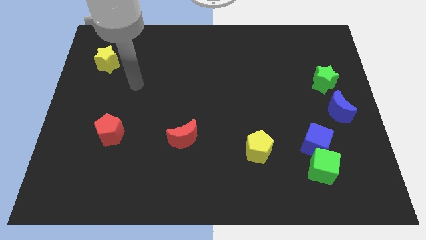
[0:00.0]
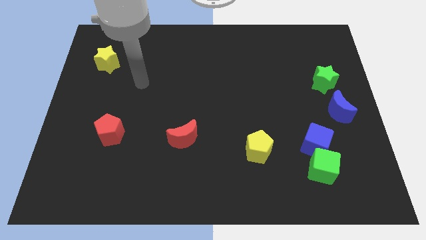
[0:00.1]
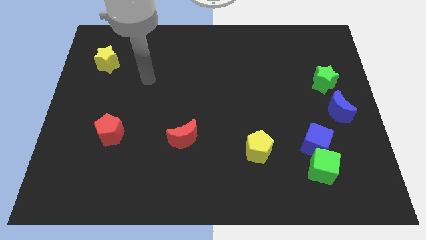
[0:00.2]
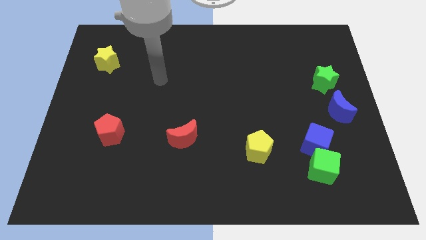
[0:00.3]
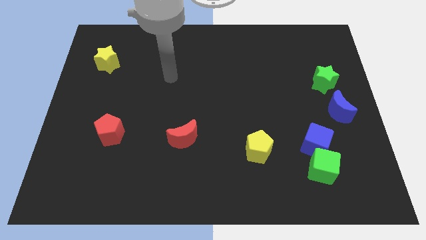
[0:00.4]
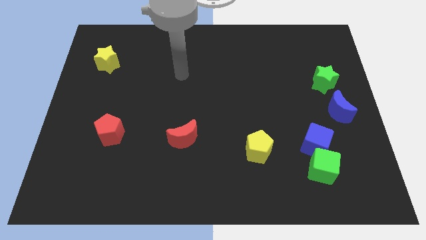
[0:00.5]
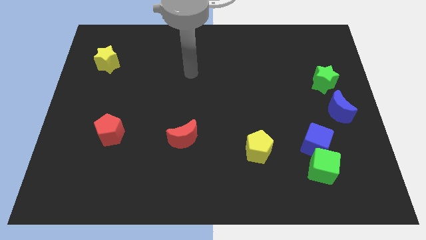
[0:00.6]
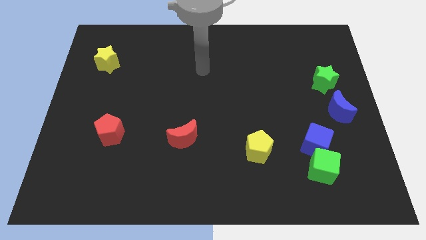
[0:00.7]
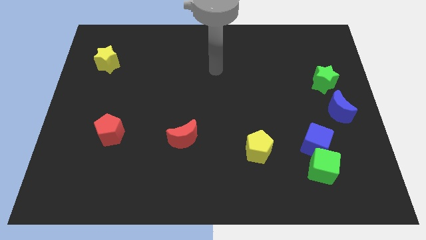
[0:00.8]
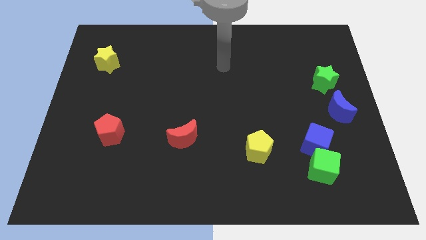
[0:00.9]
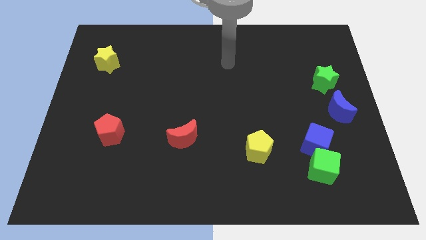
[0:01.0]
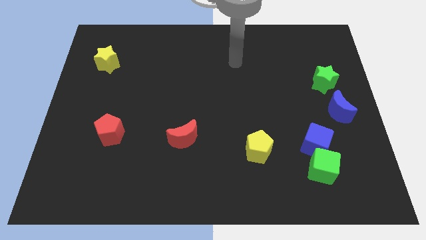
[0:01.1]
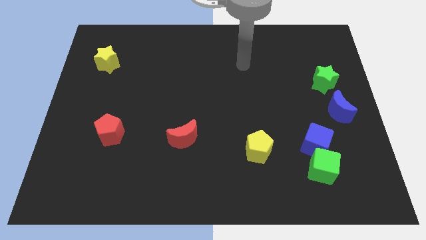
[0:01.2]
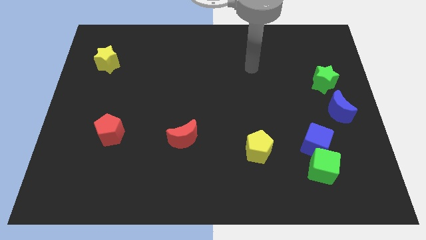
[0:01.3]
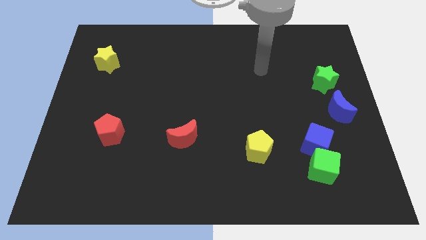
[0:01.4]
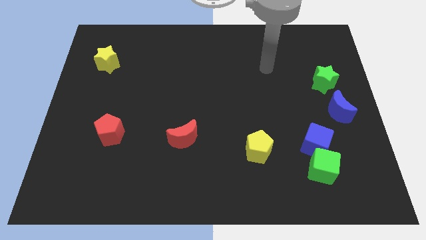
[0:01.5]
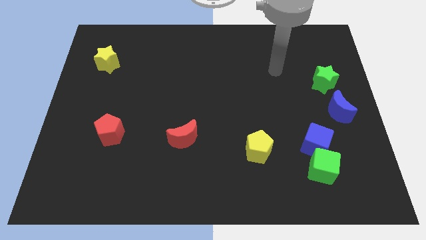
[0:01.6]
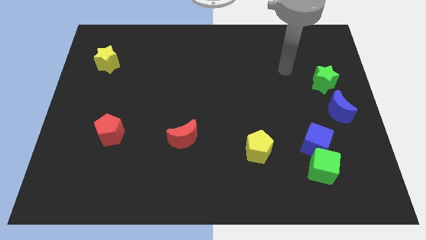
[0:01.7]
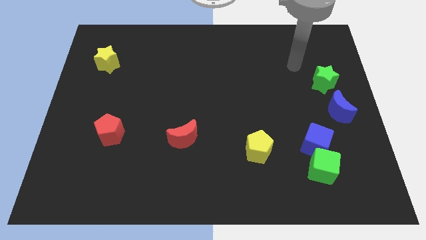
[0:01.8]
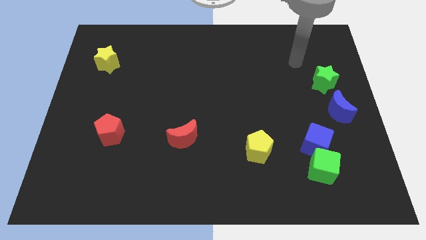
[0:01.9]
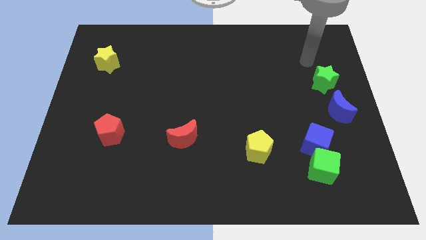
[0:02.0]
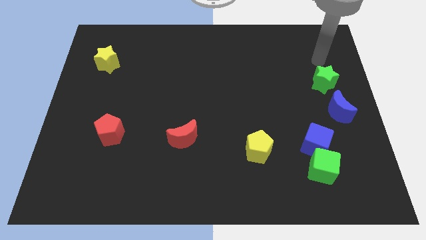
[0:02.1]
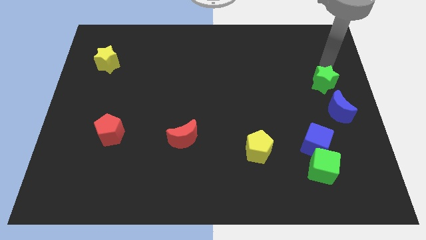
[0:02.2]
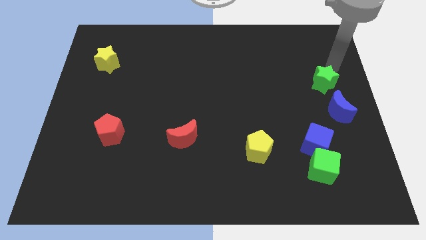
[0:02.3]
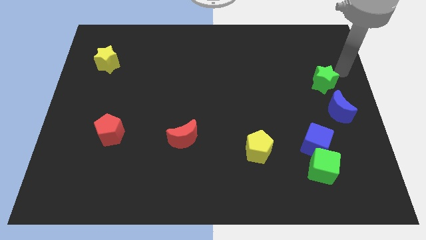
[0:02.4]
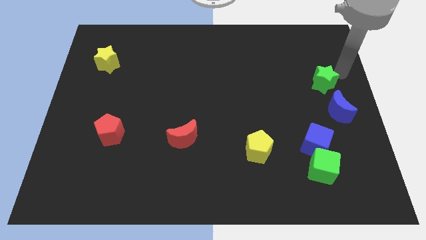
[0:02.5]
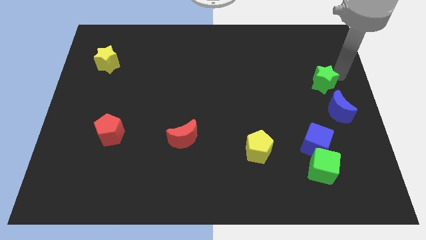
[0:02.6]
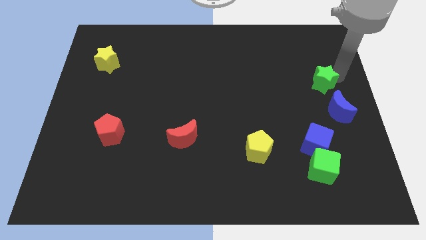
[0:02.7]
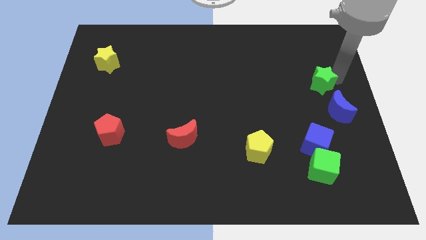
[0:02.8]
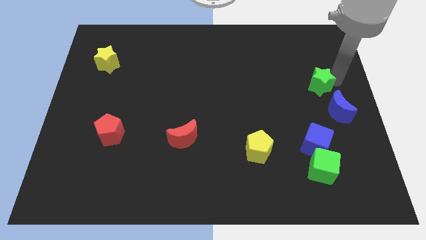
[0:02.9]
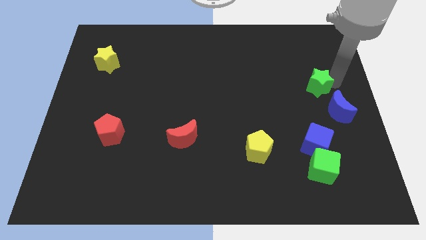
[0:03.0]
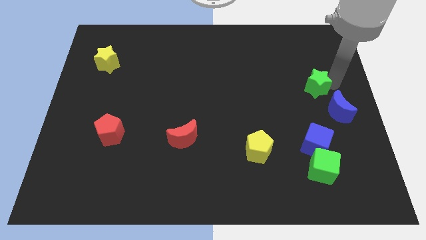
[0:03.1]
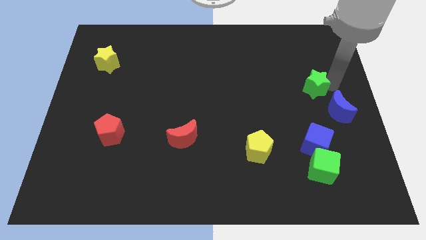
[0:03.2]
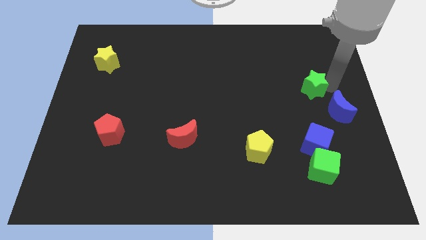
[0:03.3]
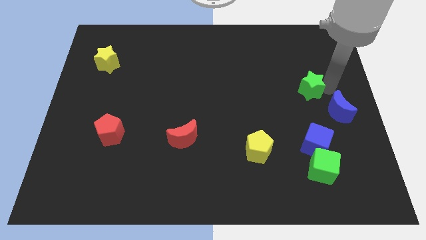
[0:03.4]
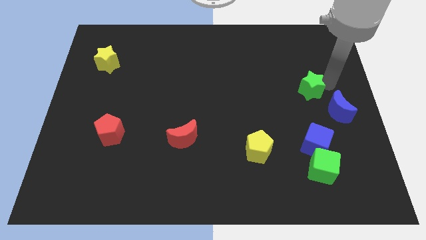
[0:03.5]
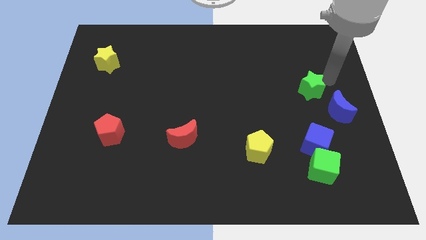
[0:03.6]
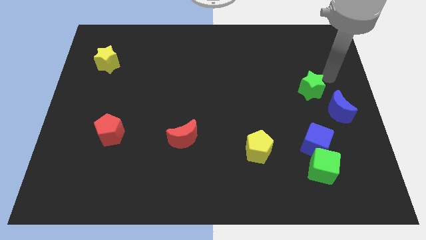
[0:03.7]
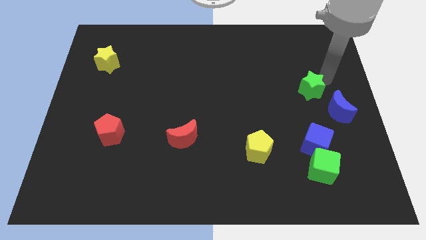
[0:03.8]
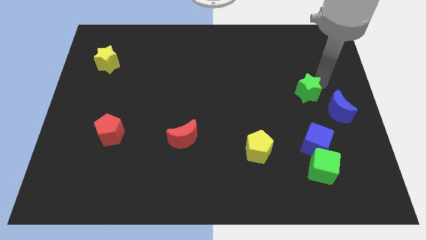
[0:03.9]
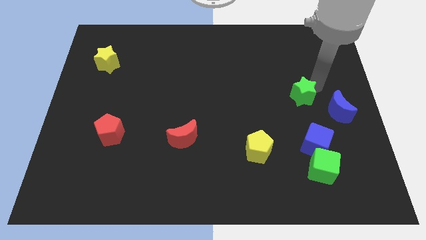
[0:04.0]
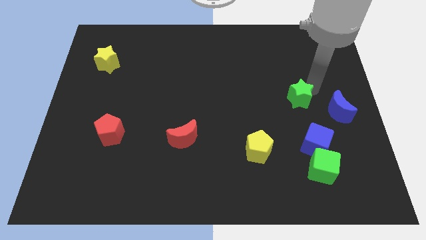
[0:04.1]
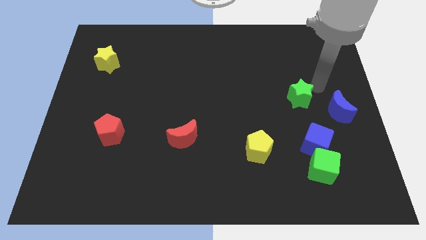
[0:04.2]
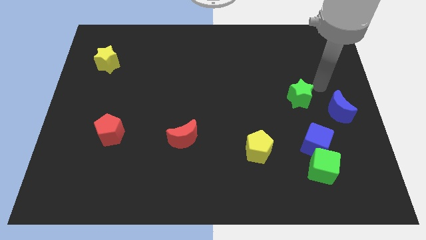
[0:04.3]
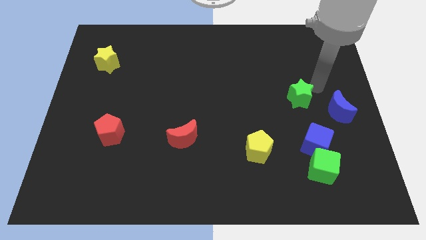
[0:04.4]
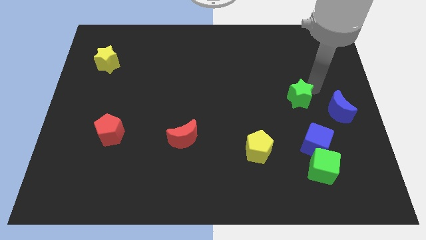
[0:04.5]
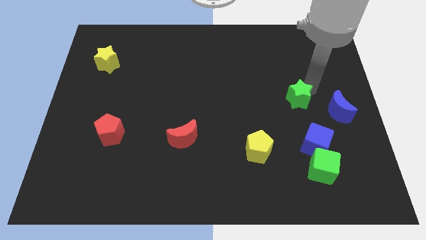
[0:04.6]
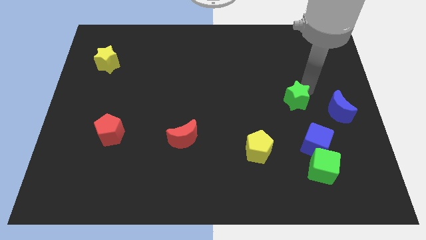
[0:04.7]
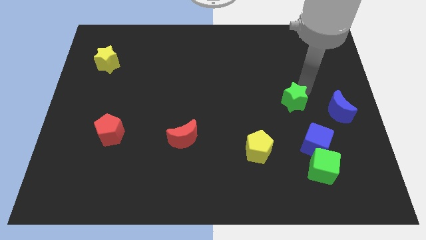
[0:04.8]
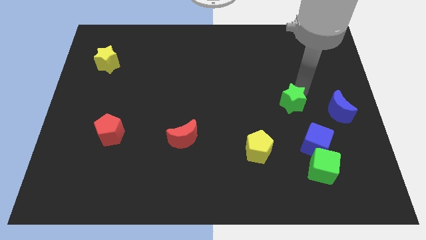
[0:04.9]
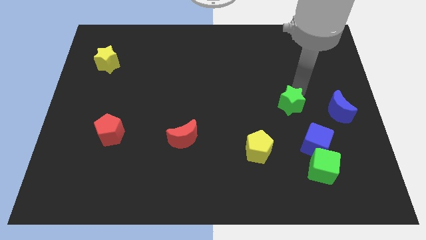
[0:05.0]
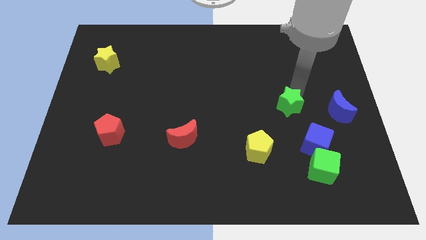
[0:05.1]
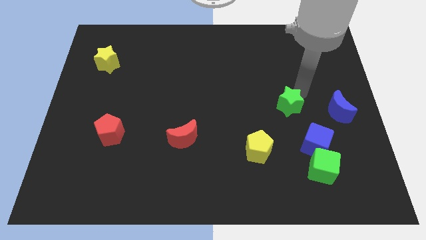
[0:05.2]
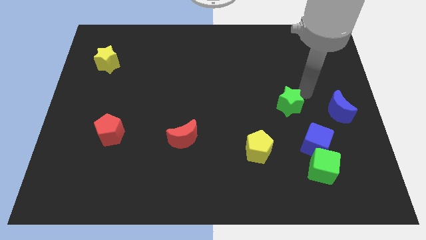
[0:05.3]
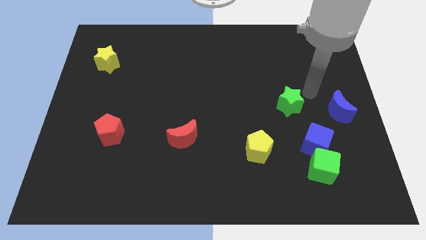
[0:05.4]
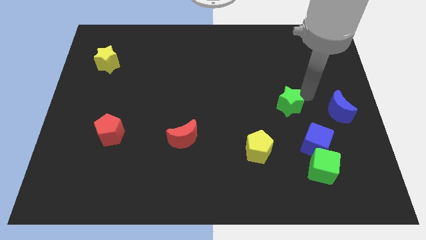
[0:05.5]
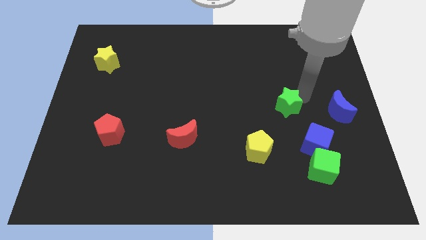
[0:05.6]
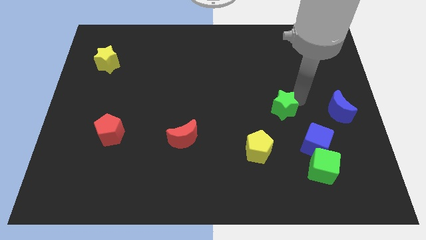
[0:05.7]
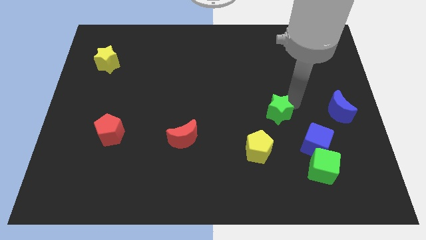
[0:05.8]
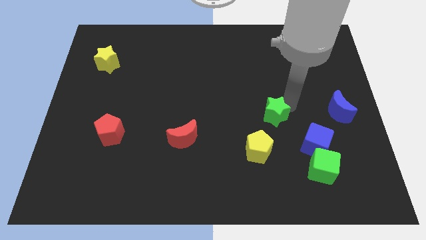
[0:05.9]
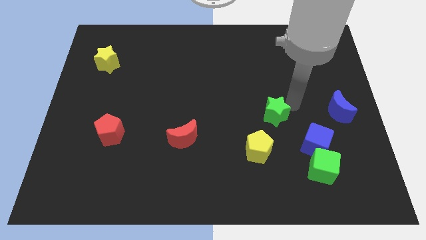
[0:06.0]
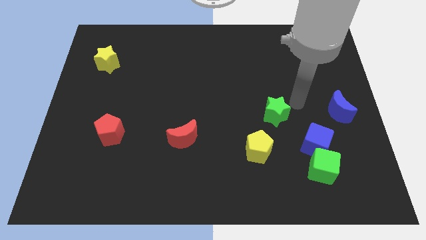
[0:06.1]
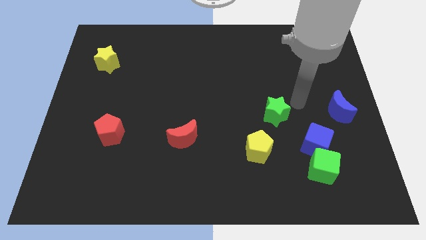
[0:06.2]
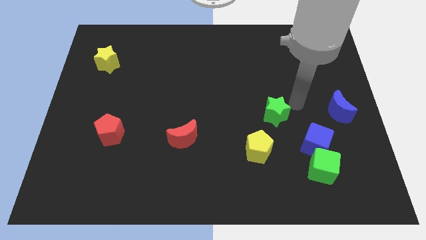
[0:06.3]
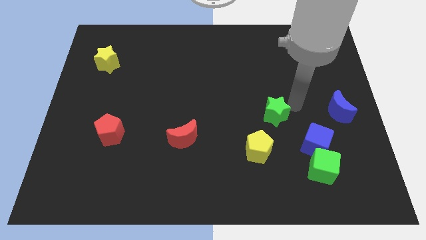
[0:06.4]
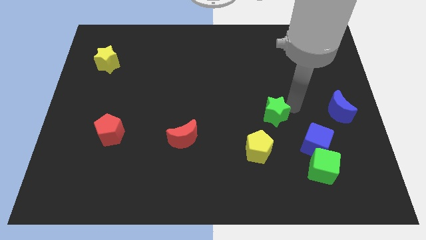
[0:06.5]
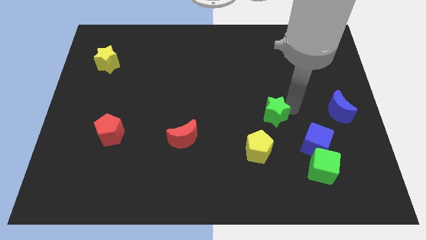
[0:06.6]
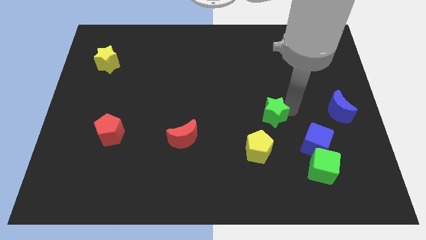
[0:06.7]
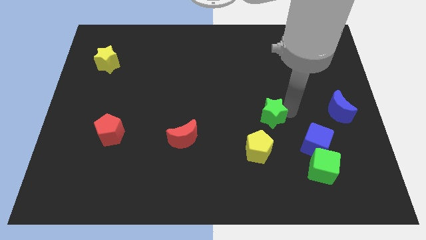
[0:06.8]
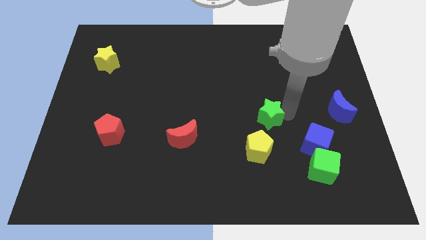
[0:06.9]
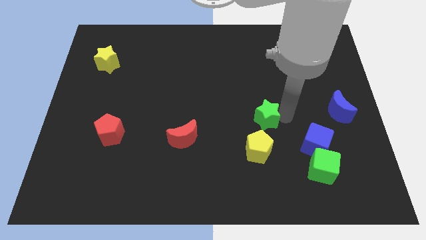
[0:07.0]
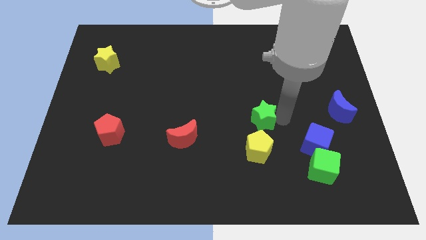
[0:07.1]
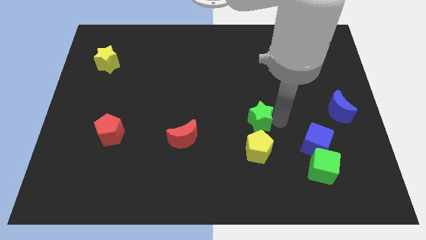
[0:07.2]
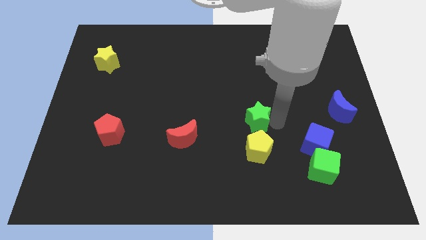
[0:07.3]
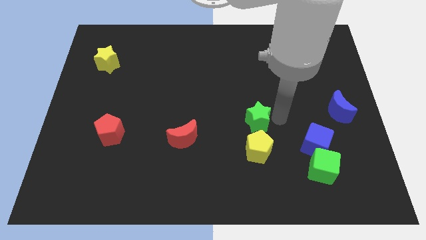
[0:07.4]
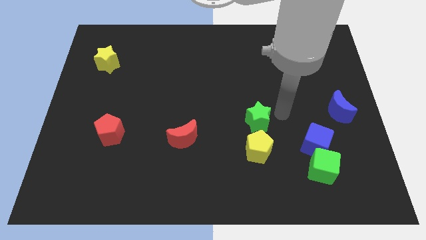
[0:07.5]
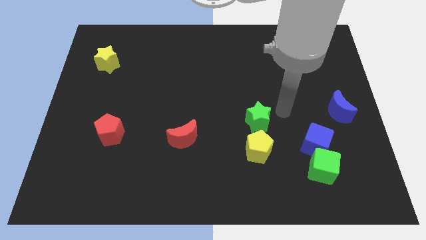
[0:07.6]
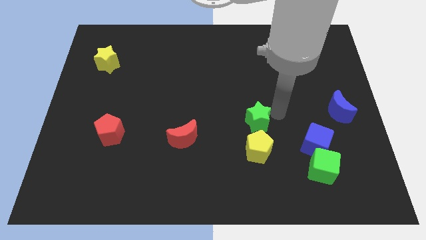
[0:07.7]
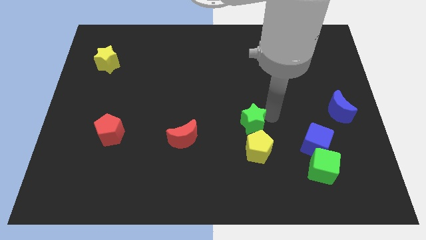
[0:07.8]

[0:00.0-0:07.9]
push the green star to the top left of the yellow pentagon
